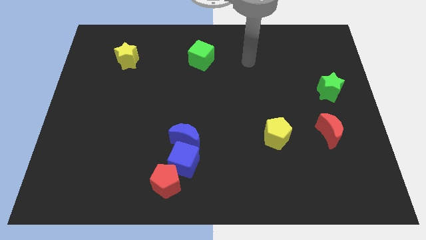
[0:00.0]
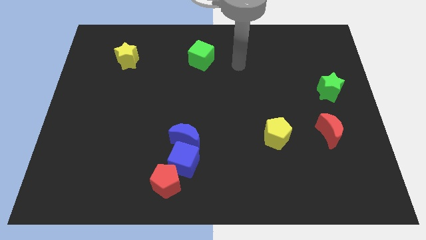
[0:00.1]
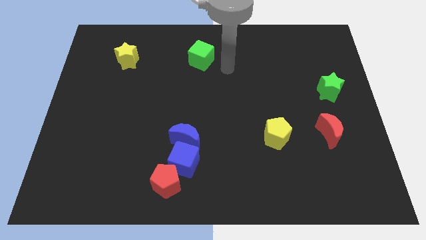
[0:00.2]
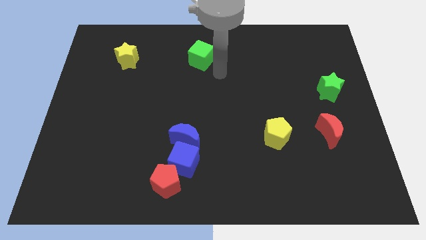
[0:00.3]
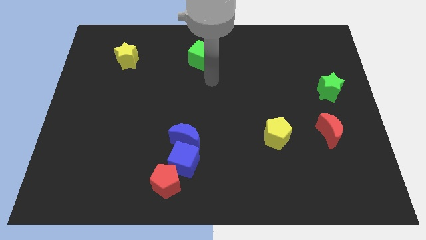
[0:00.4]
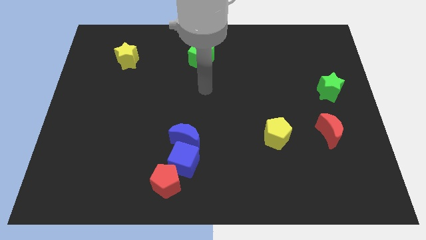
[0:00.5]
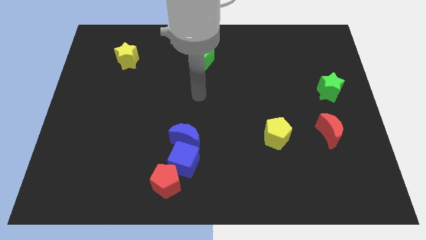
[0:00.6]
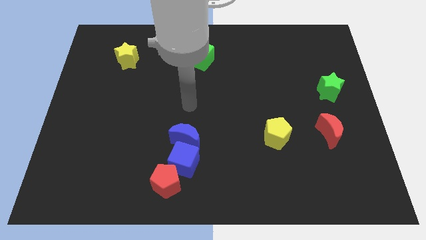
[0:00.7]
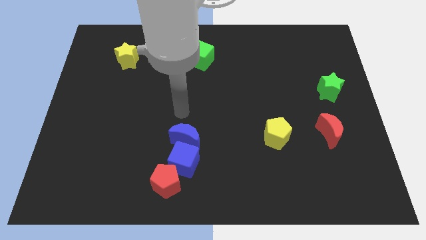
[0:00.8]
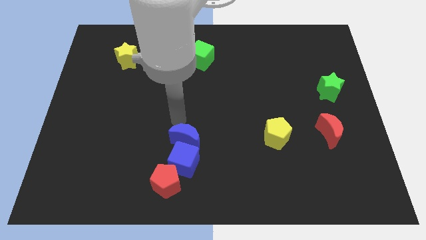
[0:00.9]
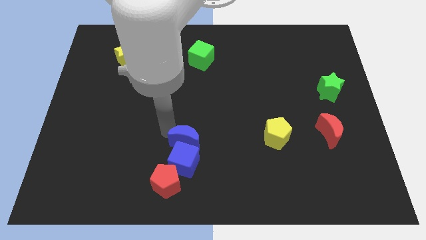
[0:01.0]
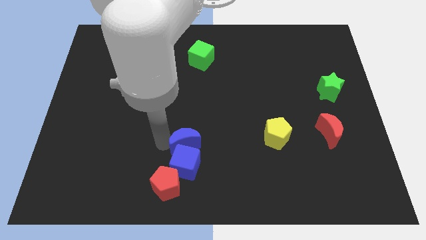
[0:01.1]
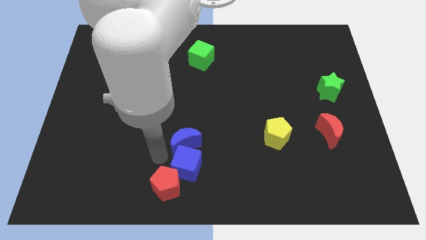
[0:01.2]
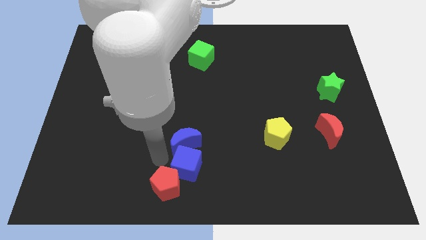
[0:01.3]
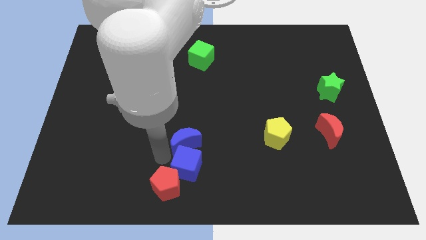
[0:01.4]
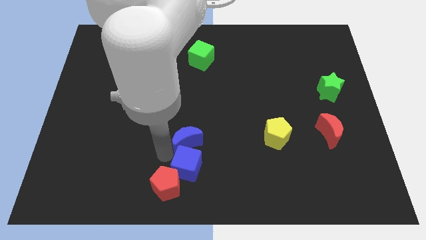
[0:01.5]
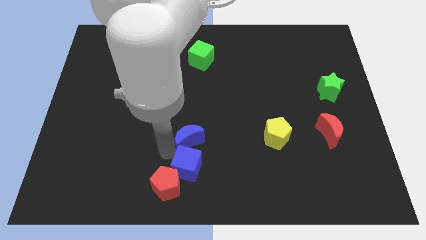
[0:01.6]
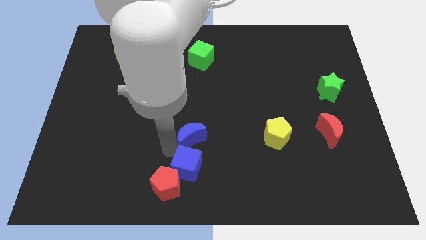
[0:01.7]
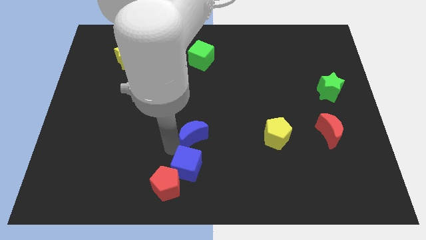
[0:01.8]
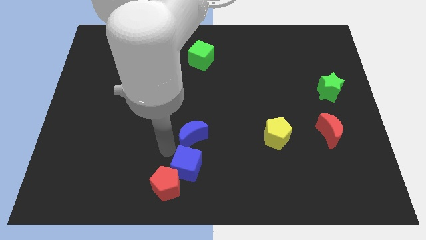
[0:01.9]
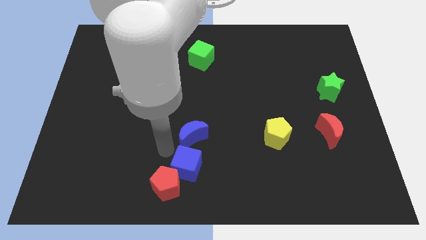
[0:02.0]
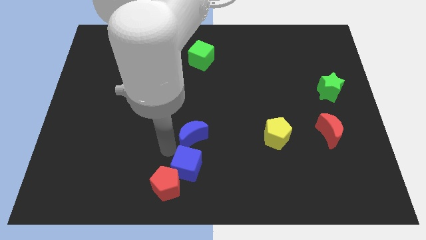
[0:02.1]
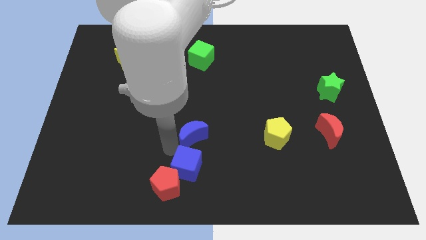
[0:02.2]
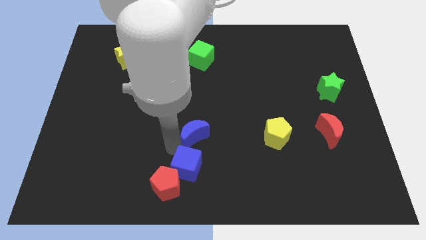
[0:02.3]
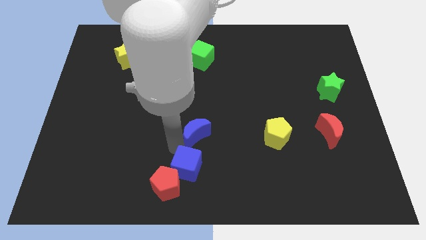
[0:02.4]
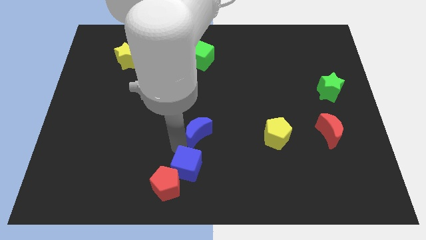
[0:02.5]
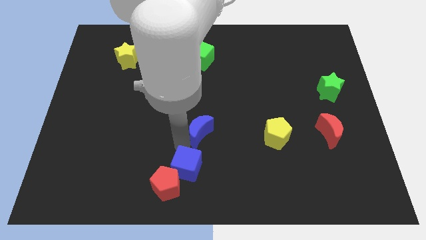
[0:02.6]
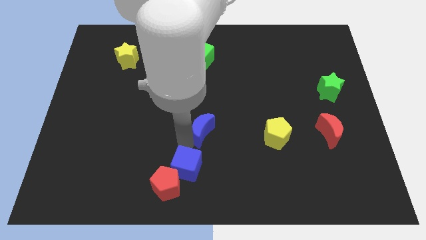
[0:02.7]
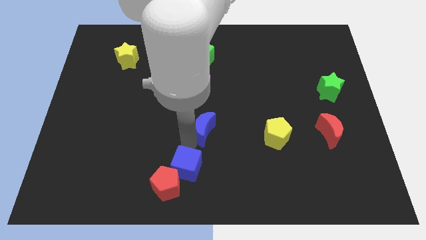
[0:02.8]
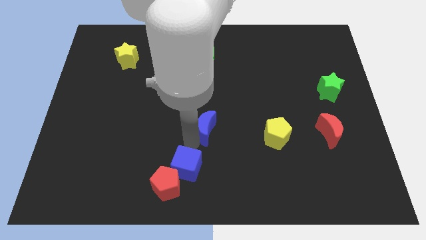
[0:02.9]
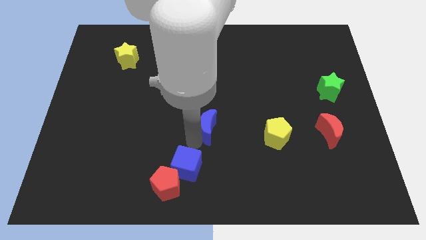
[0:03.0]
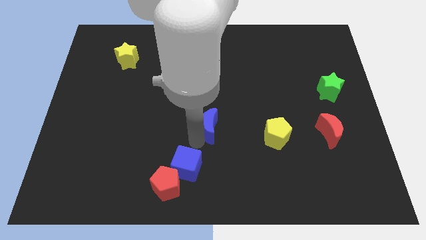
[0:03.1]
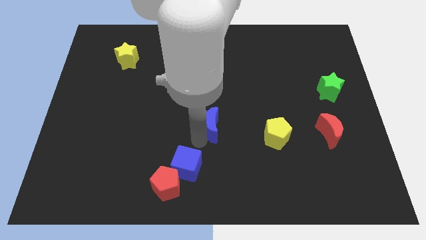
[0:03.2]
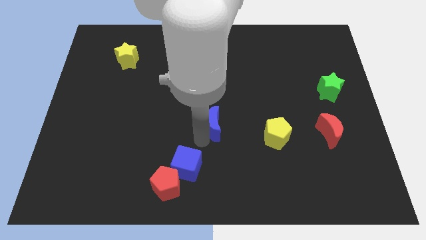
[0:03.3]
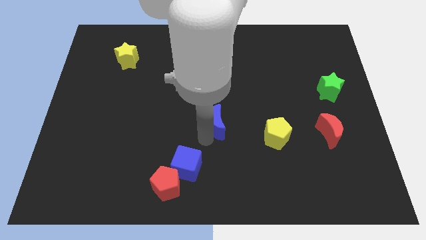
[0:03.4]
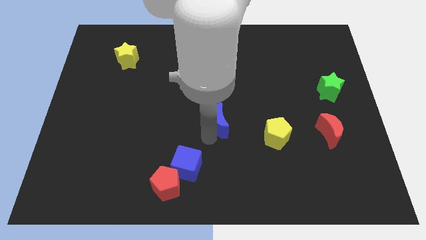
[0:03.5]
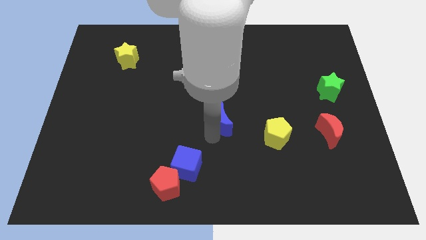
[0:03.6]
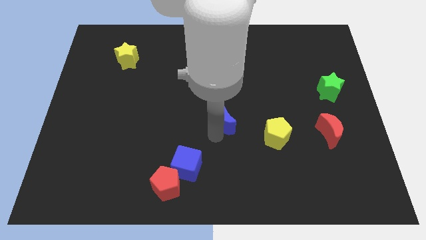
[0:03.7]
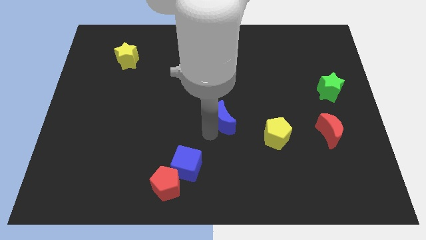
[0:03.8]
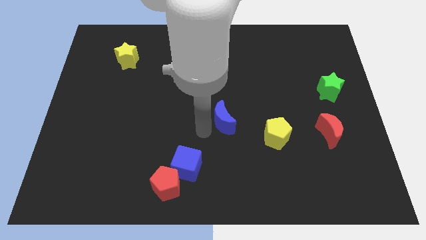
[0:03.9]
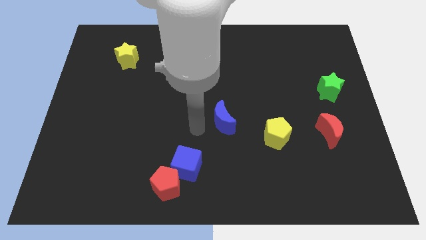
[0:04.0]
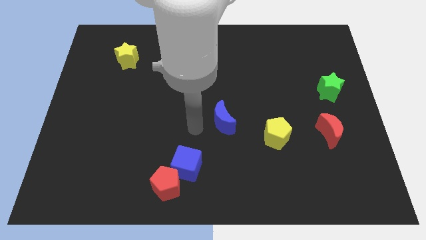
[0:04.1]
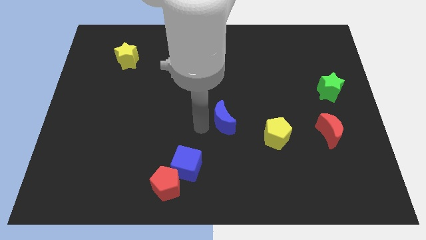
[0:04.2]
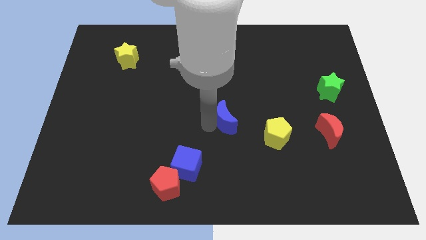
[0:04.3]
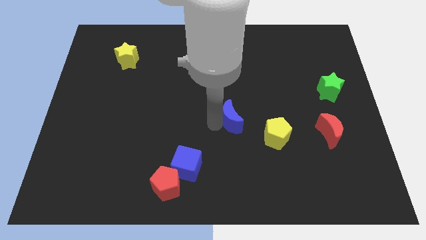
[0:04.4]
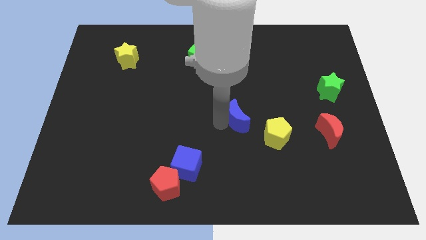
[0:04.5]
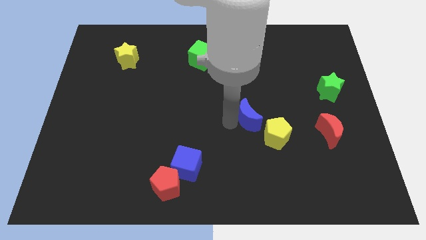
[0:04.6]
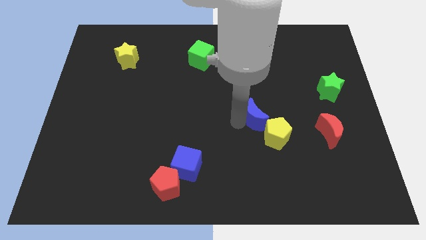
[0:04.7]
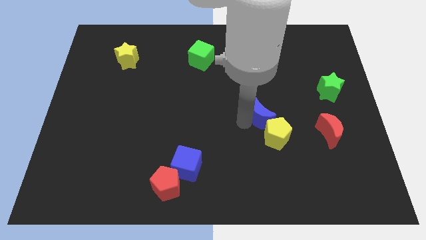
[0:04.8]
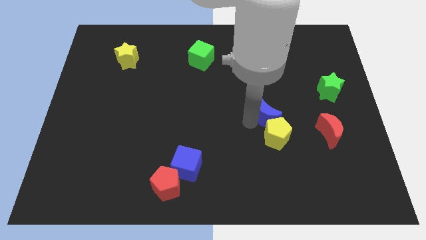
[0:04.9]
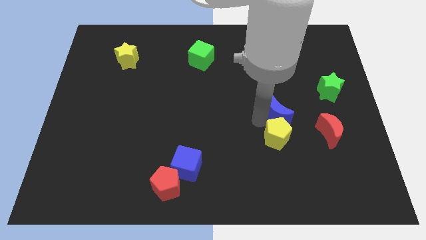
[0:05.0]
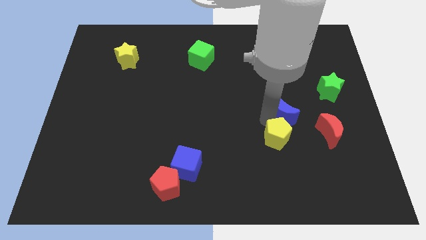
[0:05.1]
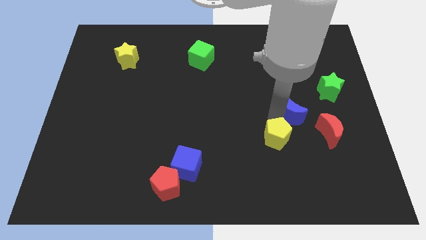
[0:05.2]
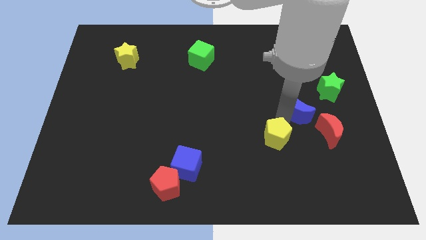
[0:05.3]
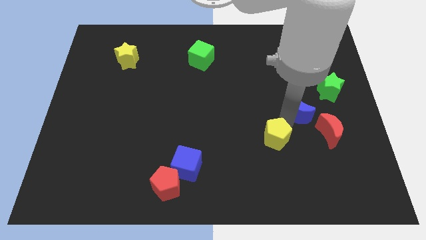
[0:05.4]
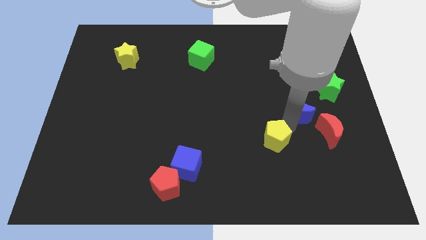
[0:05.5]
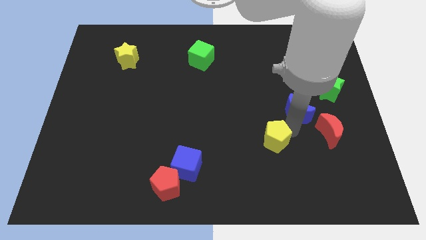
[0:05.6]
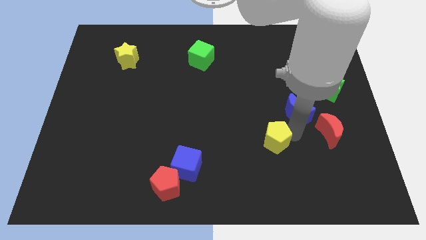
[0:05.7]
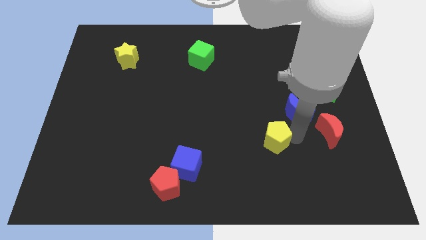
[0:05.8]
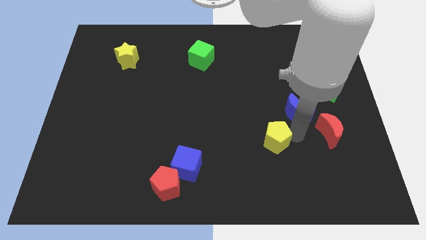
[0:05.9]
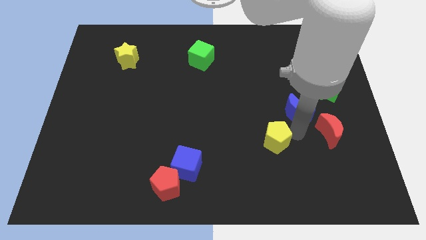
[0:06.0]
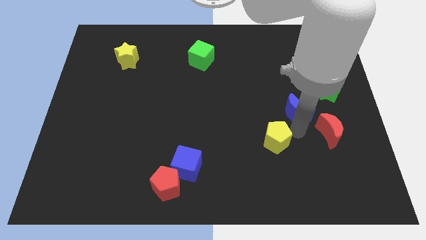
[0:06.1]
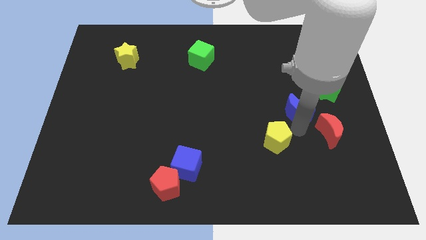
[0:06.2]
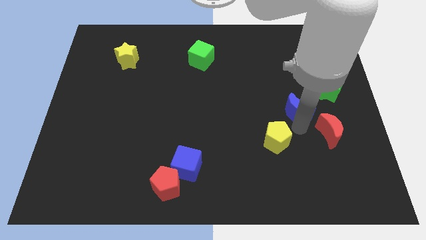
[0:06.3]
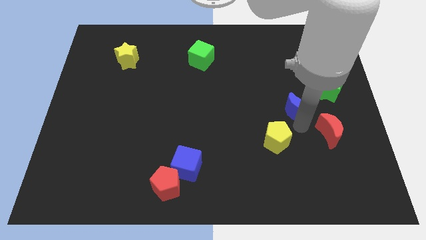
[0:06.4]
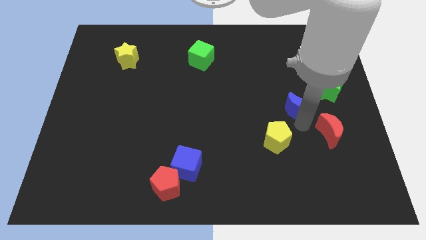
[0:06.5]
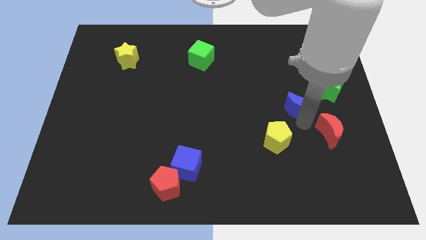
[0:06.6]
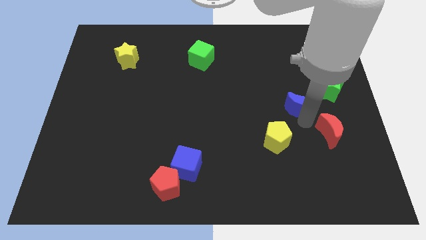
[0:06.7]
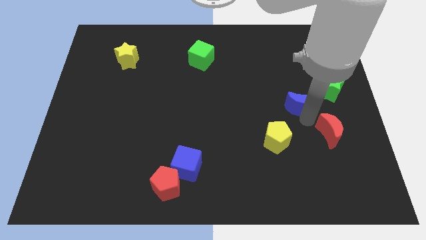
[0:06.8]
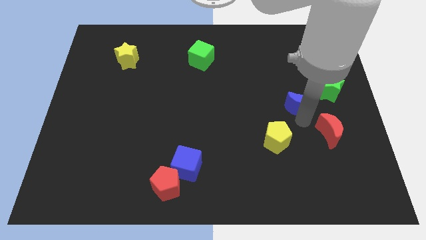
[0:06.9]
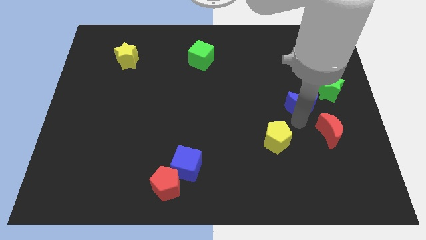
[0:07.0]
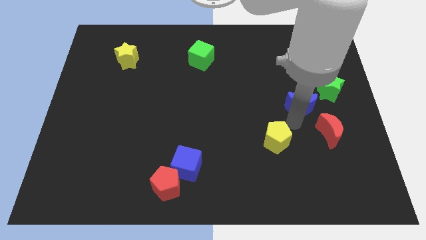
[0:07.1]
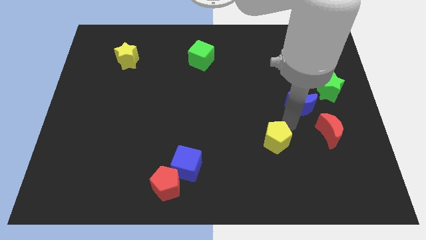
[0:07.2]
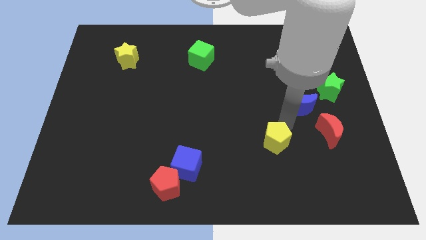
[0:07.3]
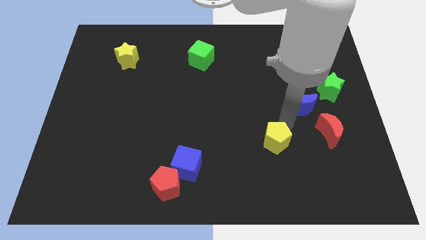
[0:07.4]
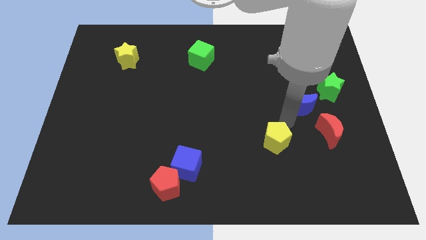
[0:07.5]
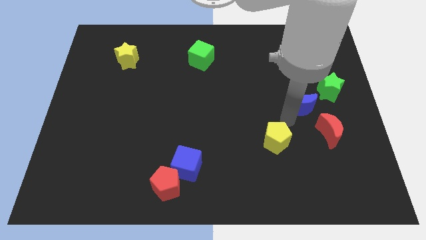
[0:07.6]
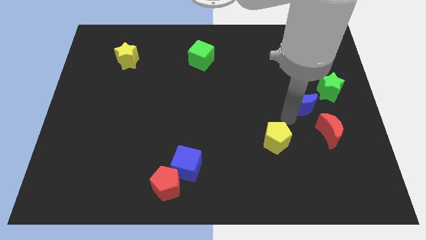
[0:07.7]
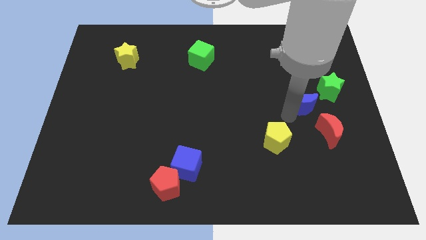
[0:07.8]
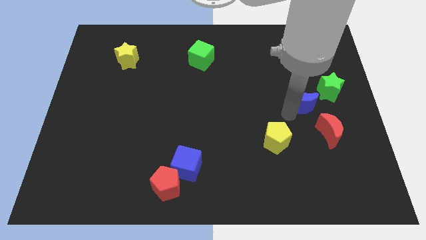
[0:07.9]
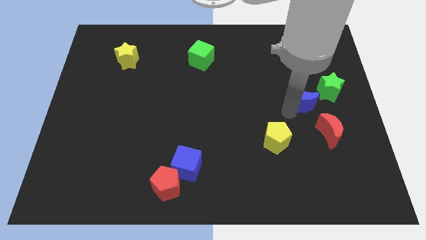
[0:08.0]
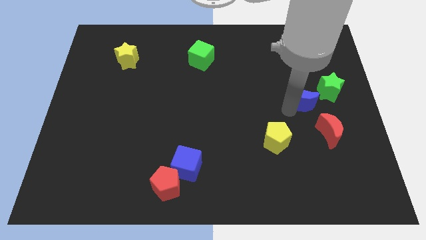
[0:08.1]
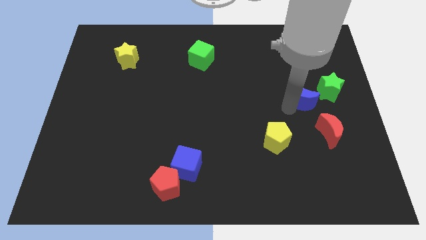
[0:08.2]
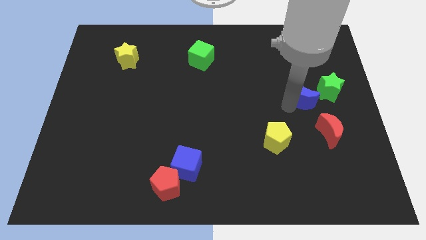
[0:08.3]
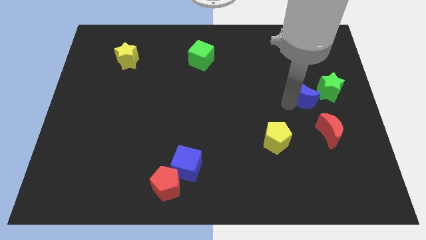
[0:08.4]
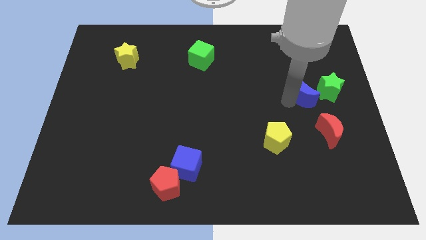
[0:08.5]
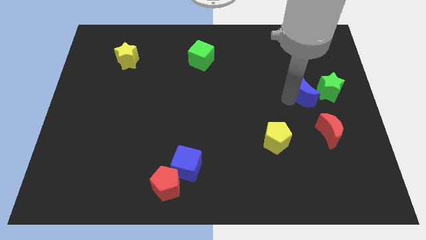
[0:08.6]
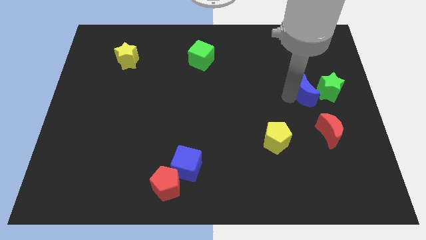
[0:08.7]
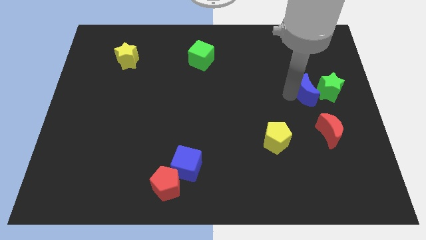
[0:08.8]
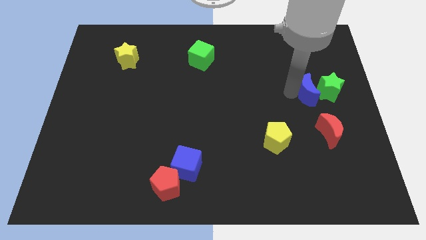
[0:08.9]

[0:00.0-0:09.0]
push the blue moon next to the green star
